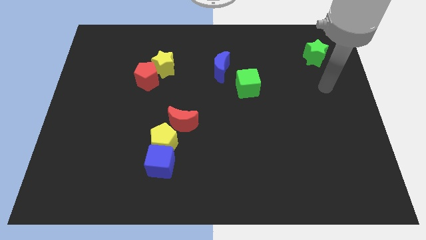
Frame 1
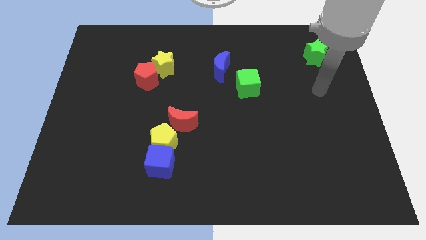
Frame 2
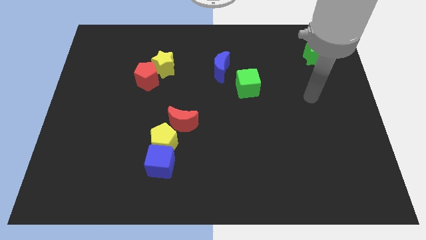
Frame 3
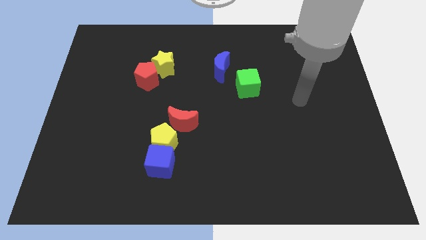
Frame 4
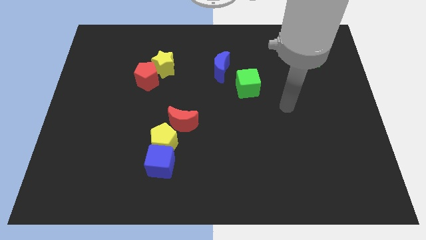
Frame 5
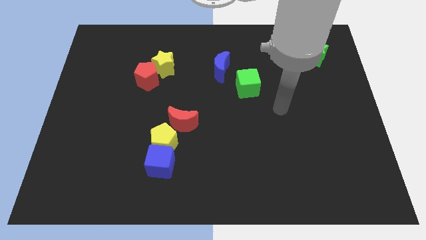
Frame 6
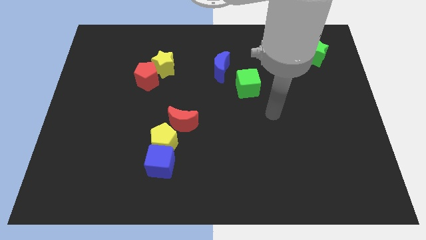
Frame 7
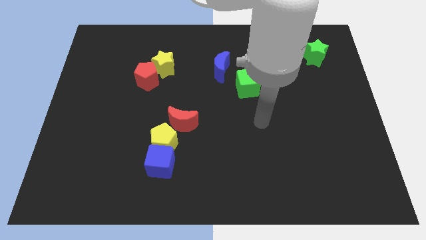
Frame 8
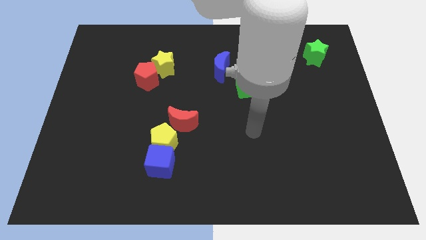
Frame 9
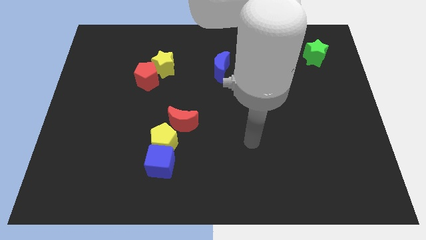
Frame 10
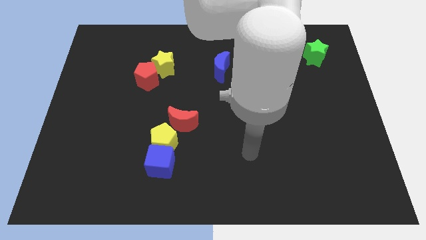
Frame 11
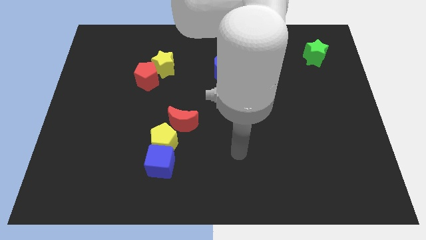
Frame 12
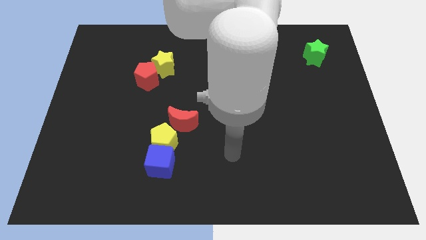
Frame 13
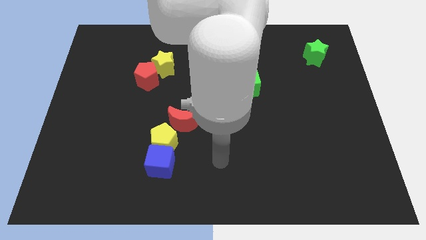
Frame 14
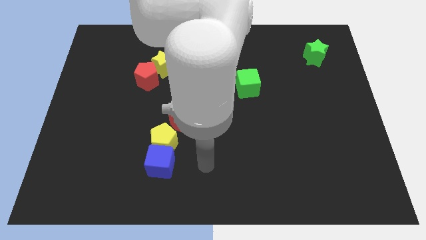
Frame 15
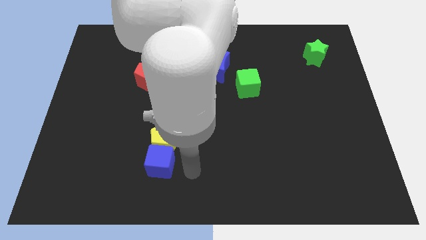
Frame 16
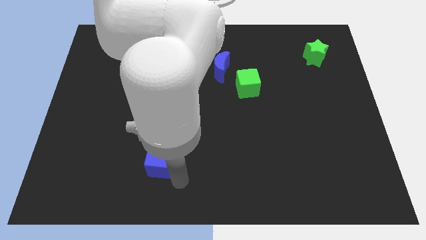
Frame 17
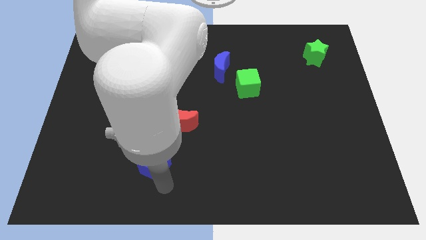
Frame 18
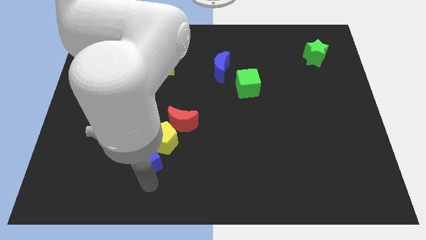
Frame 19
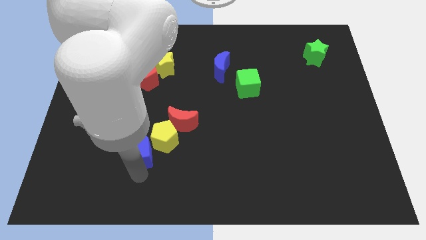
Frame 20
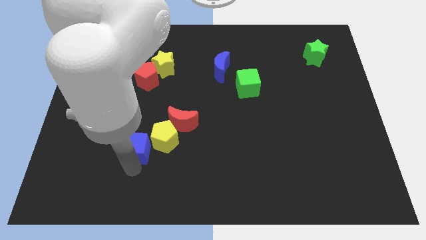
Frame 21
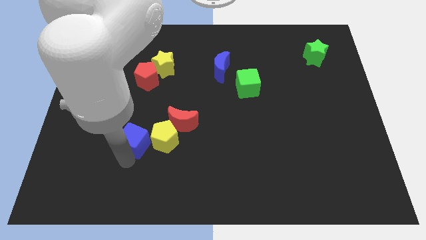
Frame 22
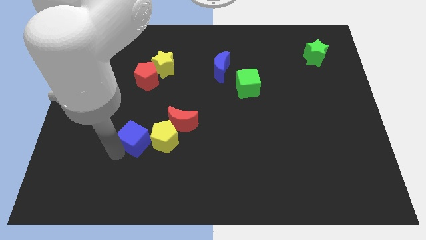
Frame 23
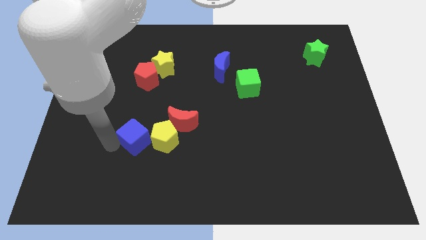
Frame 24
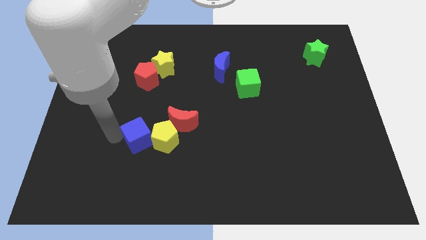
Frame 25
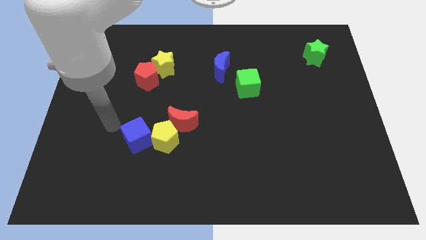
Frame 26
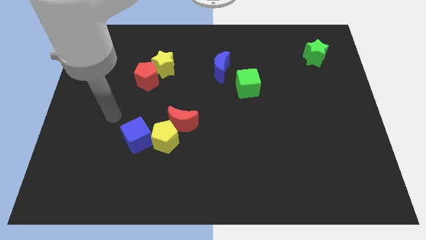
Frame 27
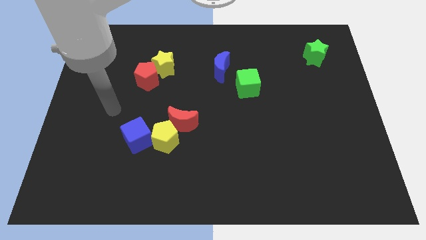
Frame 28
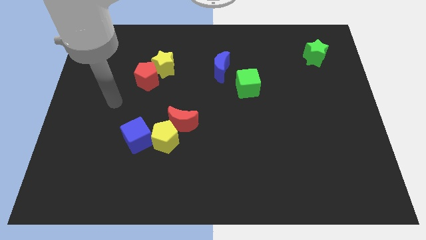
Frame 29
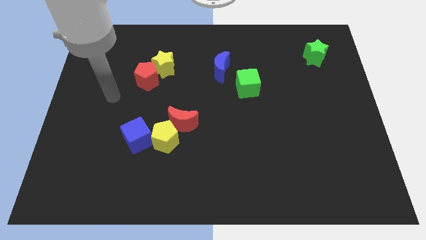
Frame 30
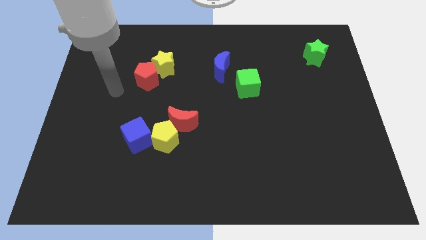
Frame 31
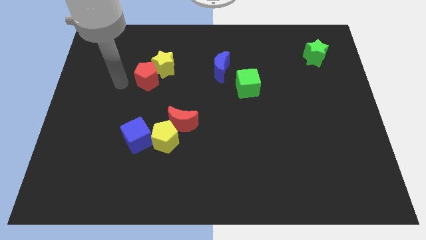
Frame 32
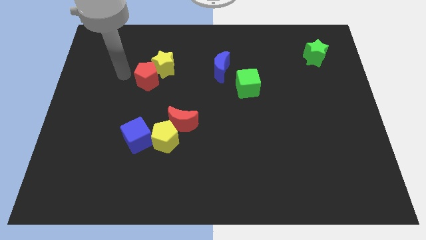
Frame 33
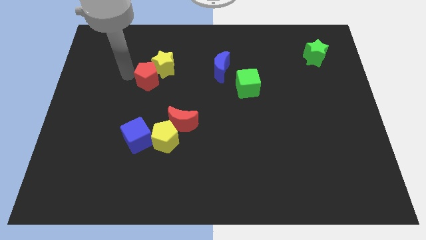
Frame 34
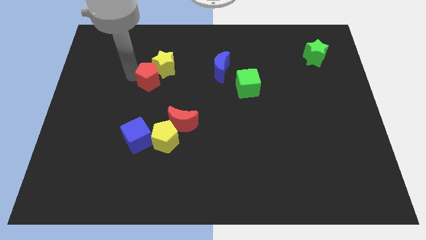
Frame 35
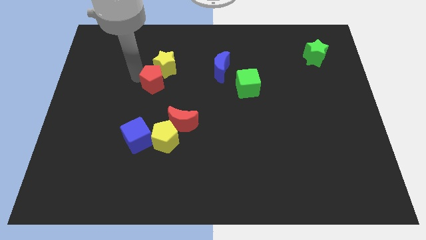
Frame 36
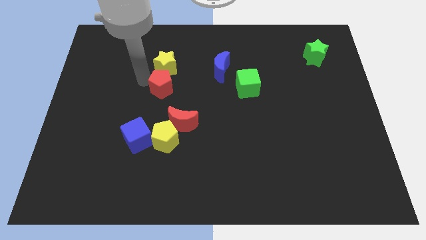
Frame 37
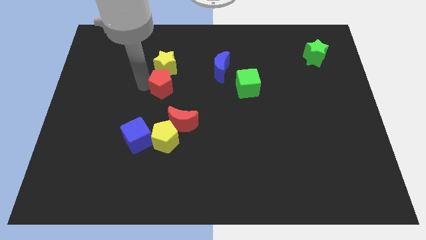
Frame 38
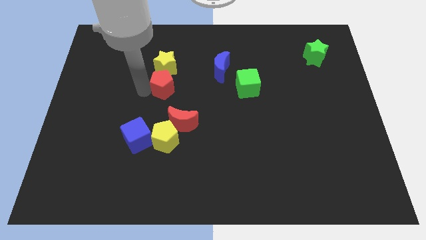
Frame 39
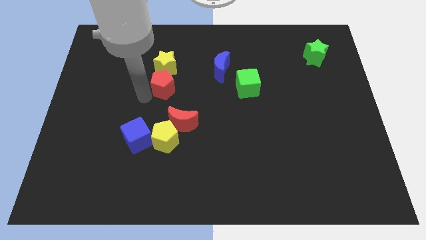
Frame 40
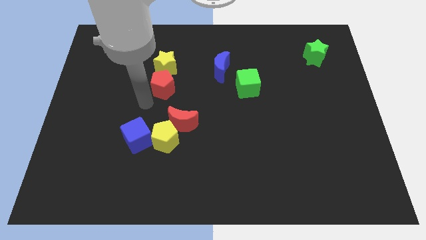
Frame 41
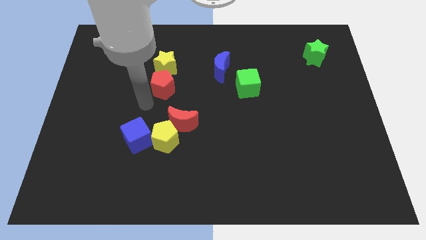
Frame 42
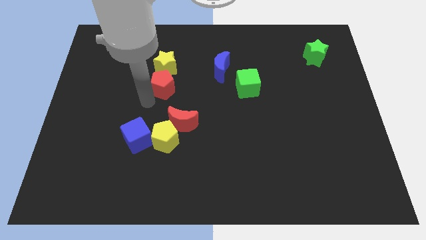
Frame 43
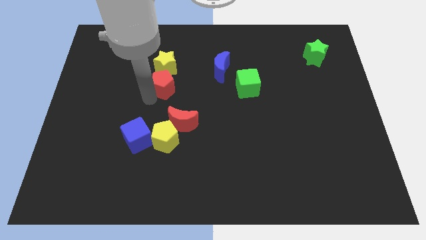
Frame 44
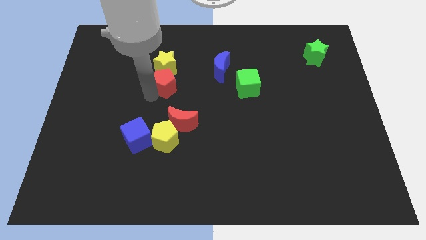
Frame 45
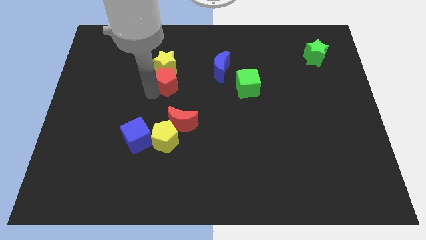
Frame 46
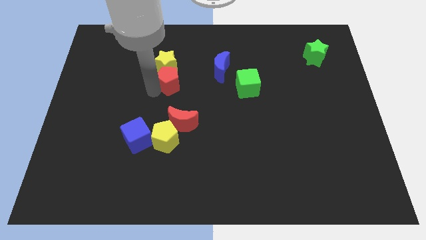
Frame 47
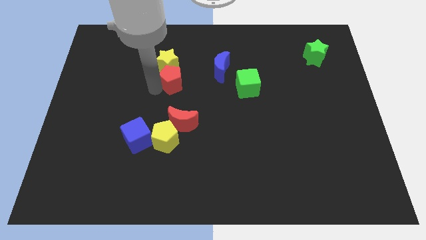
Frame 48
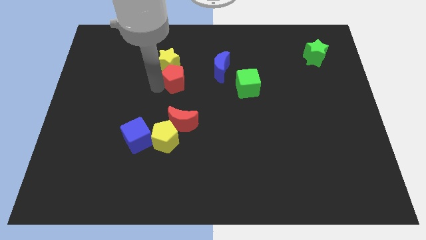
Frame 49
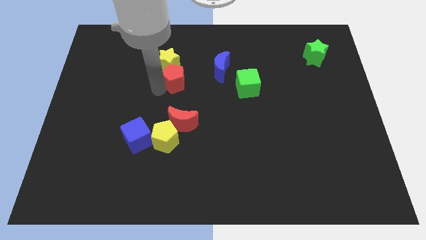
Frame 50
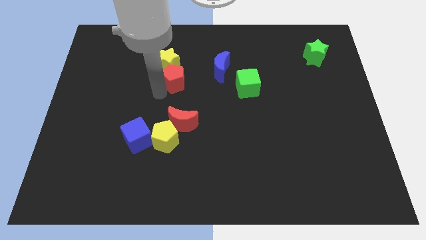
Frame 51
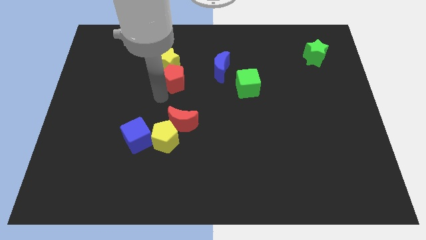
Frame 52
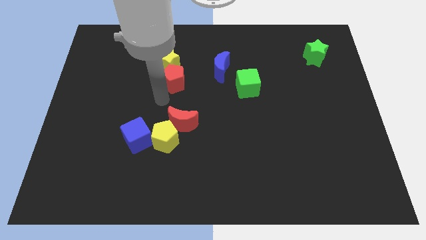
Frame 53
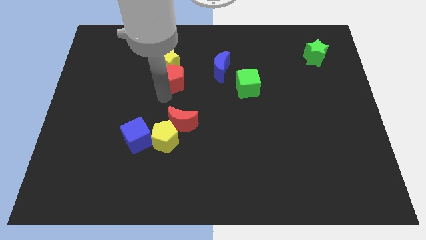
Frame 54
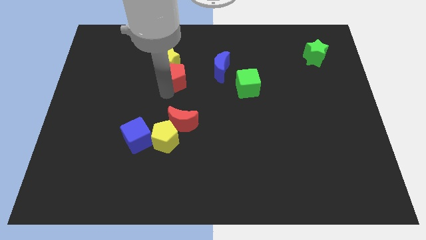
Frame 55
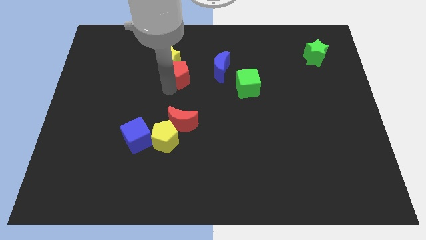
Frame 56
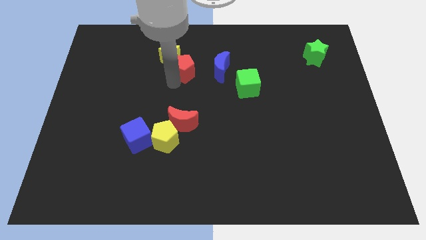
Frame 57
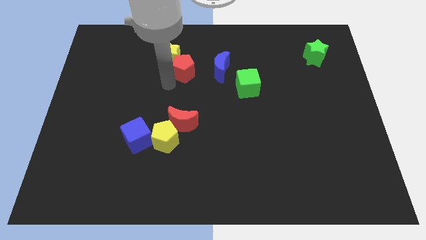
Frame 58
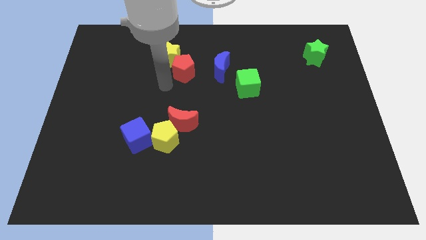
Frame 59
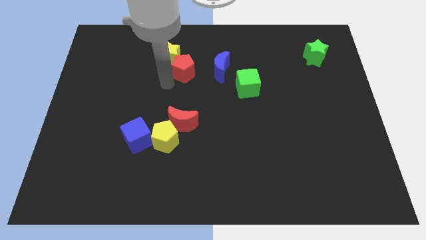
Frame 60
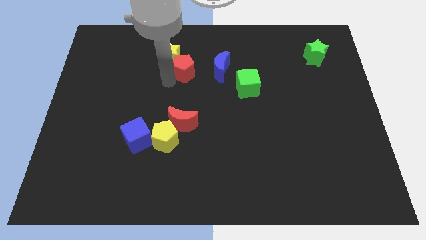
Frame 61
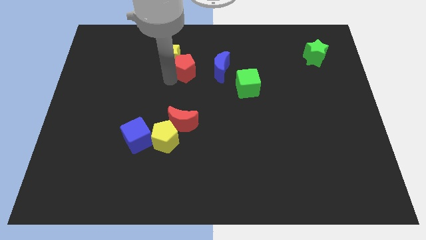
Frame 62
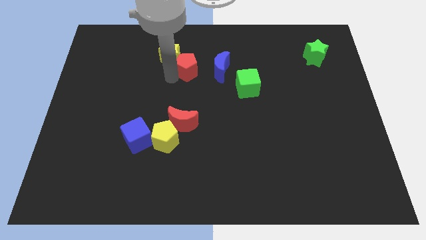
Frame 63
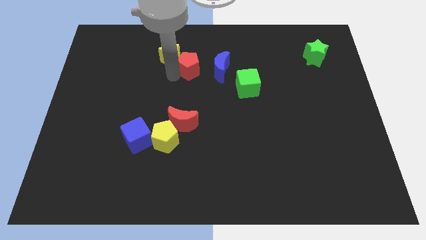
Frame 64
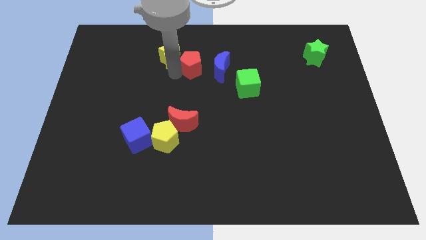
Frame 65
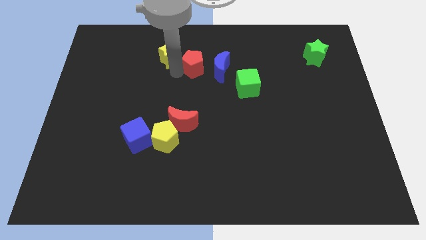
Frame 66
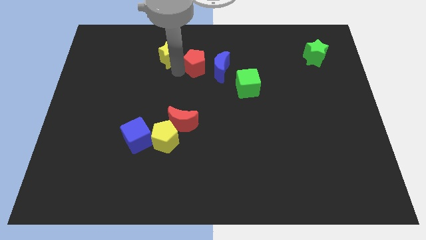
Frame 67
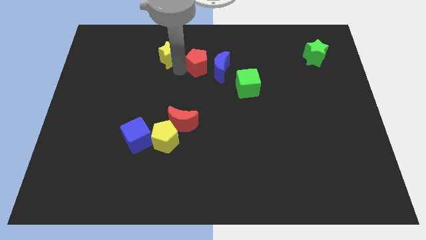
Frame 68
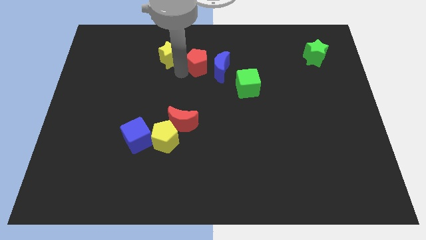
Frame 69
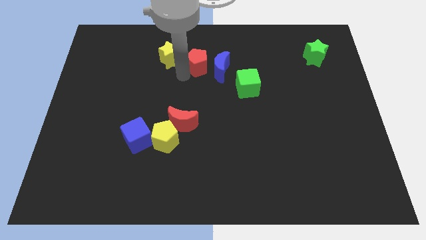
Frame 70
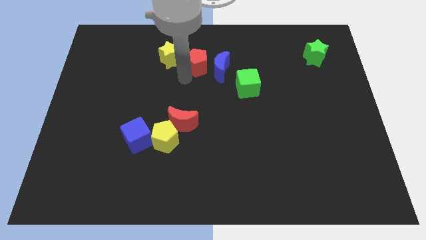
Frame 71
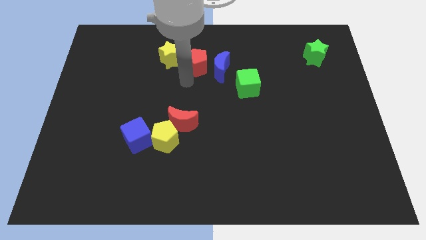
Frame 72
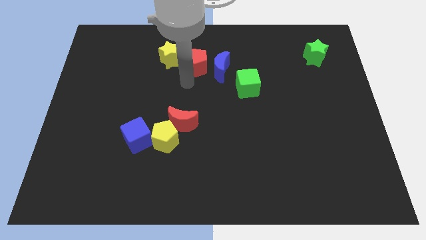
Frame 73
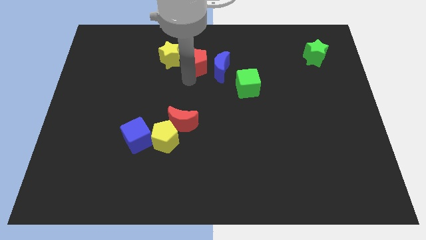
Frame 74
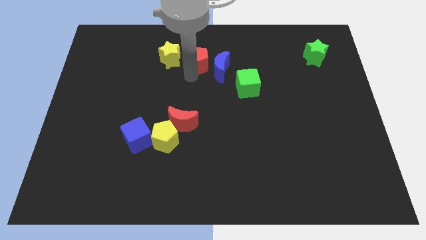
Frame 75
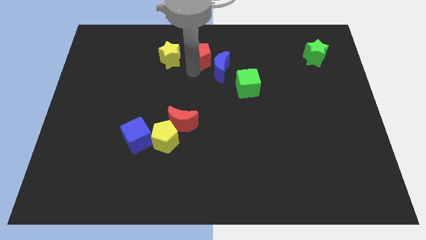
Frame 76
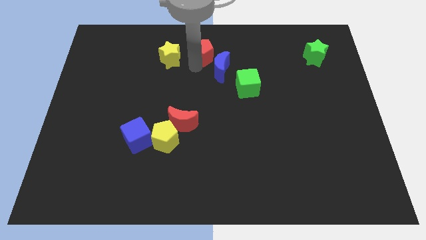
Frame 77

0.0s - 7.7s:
slide the red pentagon to the top side
